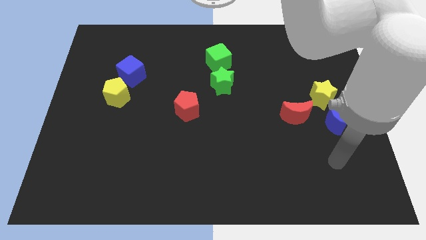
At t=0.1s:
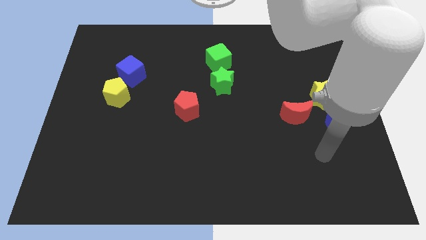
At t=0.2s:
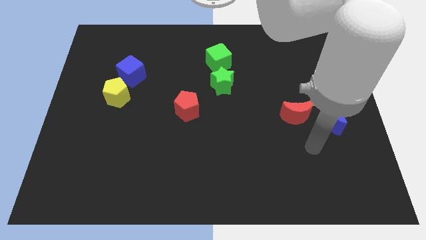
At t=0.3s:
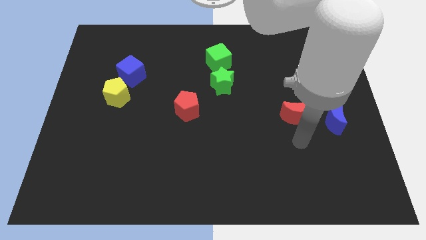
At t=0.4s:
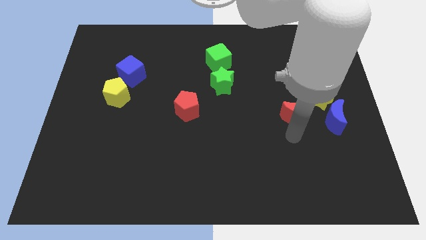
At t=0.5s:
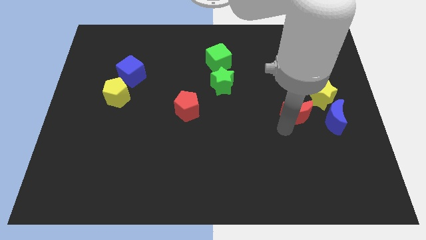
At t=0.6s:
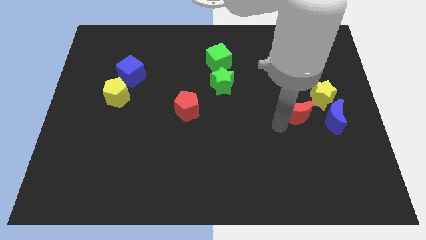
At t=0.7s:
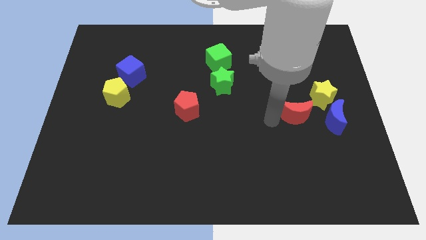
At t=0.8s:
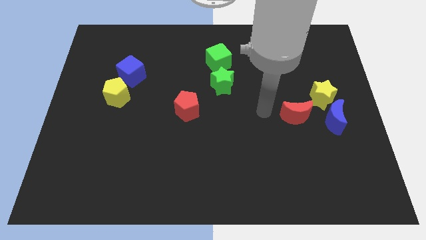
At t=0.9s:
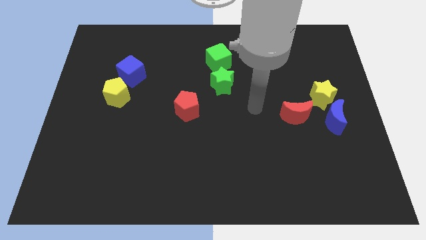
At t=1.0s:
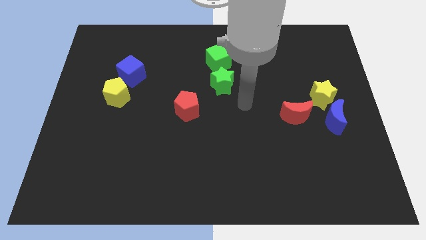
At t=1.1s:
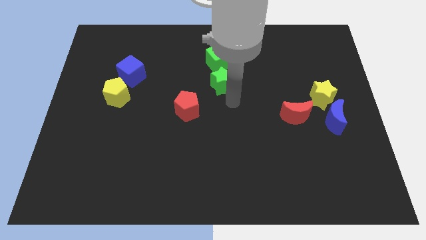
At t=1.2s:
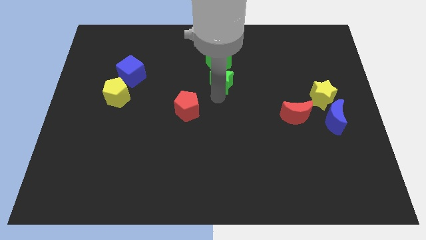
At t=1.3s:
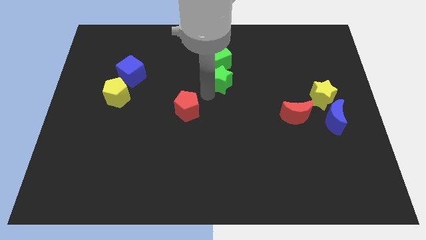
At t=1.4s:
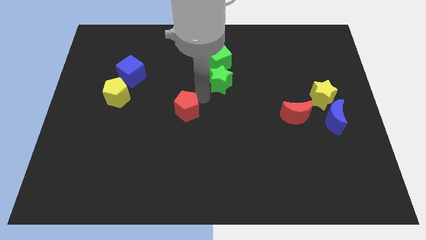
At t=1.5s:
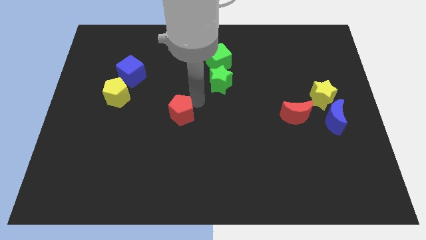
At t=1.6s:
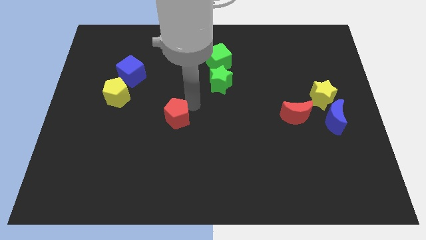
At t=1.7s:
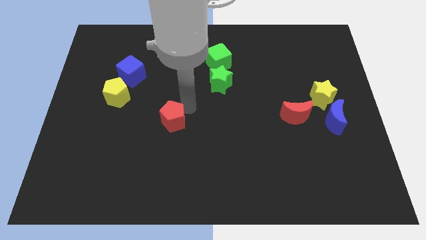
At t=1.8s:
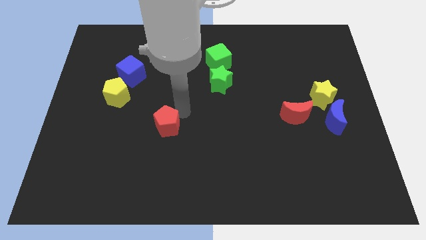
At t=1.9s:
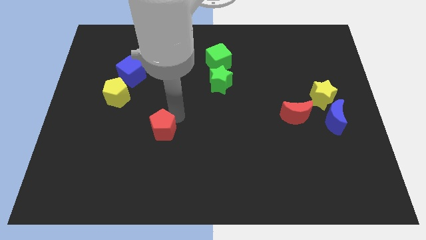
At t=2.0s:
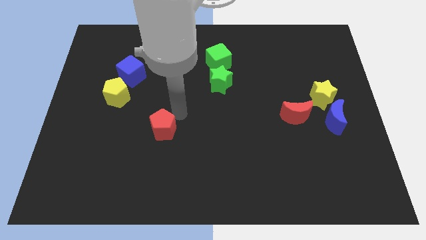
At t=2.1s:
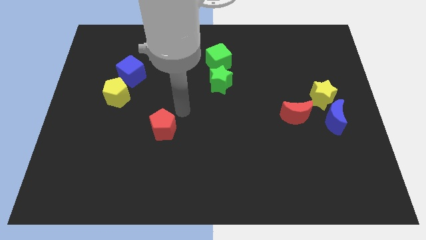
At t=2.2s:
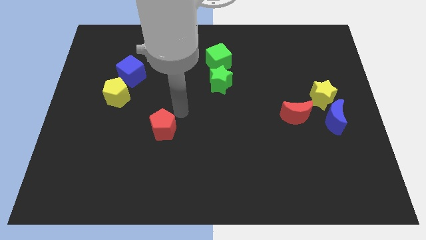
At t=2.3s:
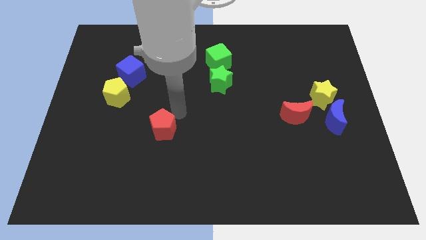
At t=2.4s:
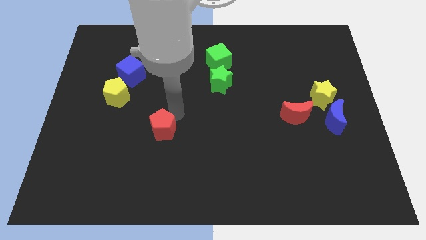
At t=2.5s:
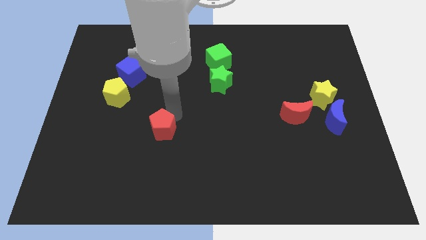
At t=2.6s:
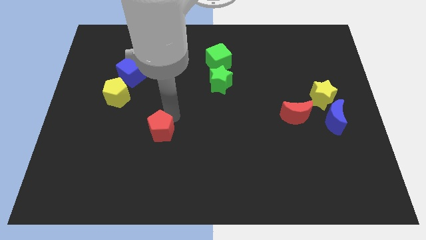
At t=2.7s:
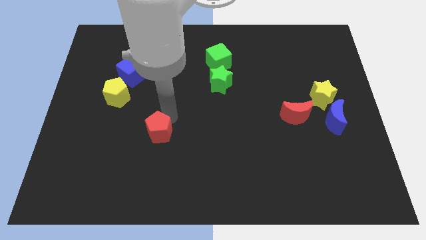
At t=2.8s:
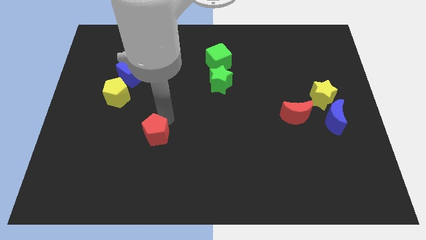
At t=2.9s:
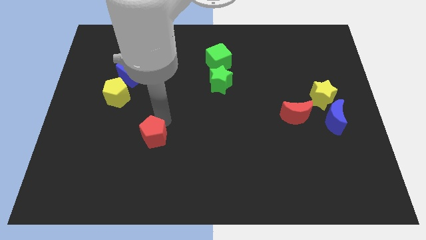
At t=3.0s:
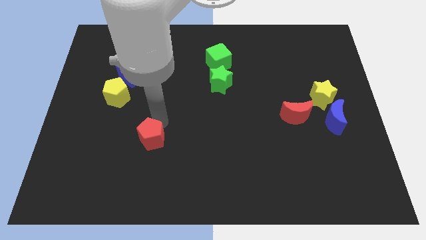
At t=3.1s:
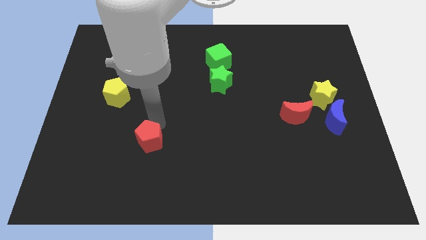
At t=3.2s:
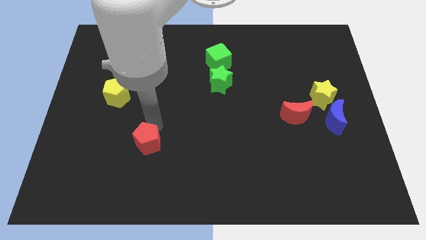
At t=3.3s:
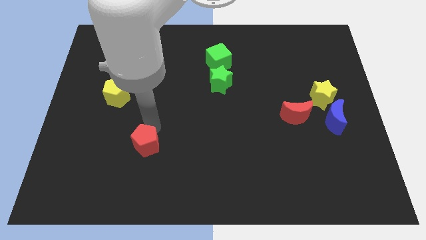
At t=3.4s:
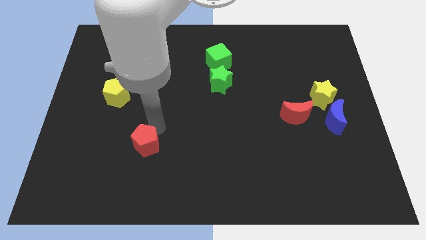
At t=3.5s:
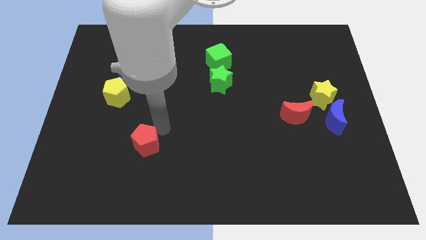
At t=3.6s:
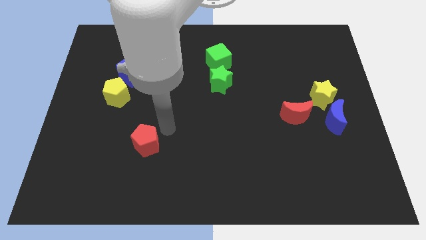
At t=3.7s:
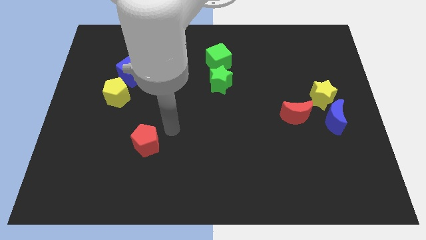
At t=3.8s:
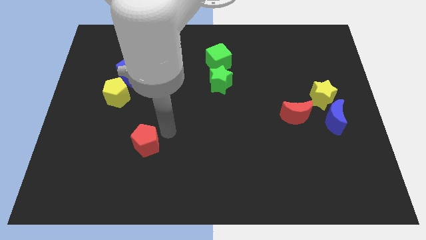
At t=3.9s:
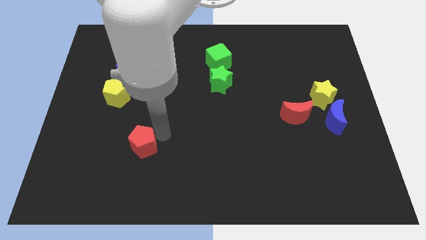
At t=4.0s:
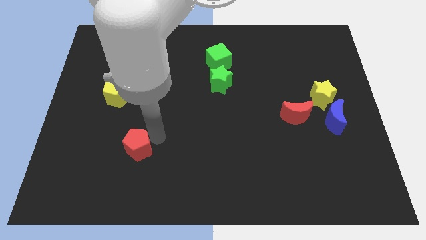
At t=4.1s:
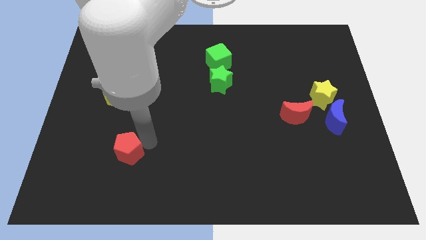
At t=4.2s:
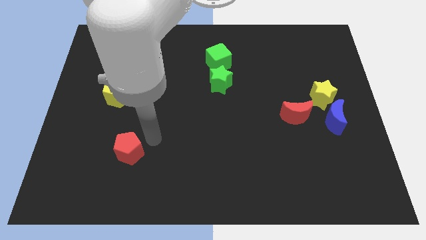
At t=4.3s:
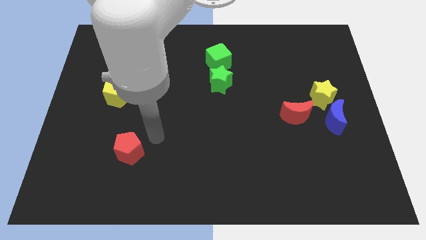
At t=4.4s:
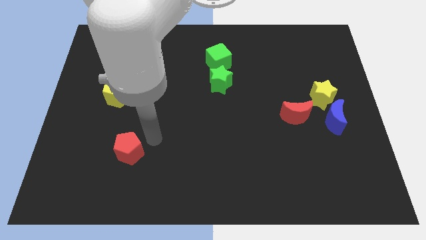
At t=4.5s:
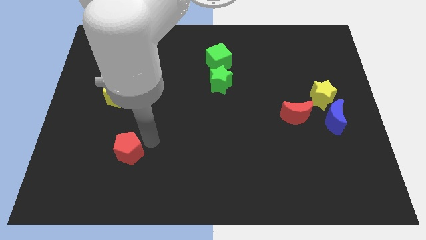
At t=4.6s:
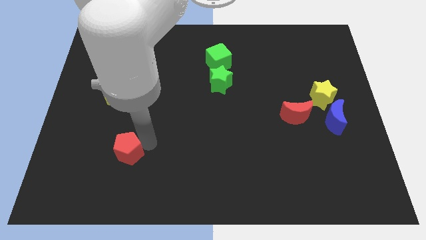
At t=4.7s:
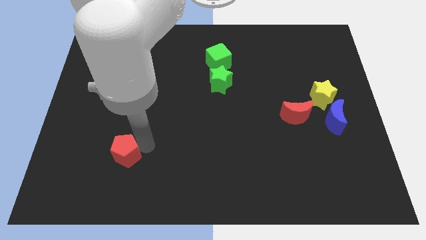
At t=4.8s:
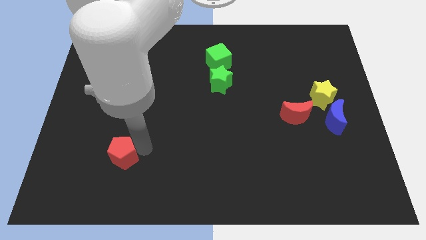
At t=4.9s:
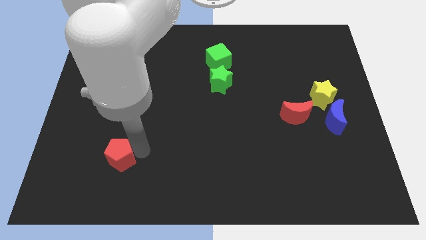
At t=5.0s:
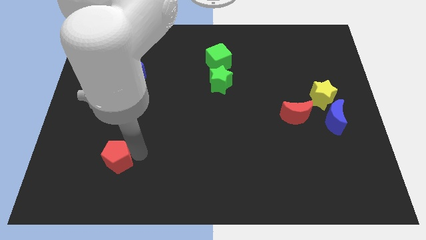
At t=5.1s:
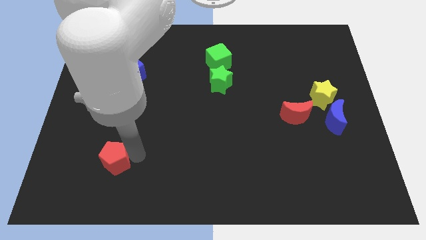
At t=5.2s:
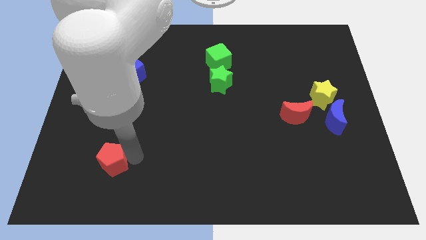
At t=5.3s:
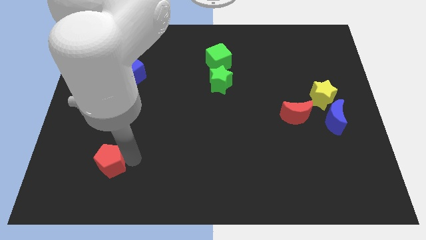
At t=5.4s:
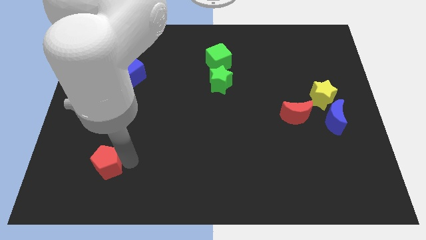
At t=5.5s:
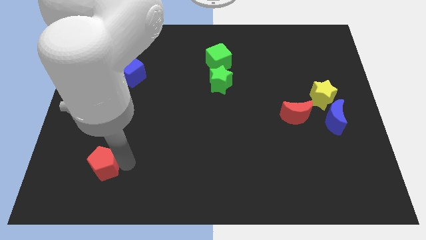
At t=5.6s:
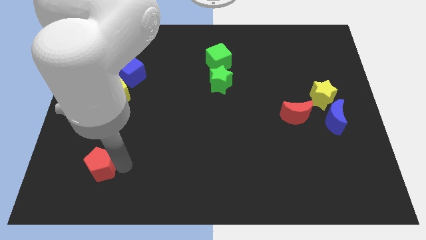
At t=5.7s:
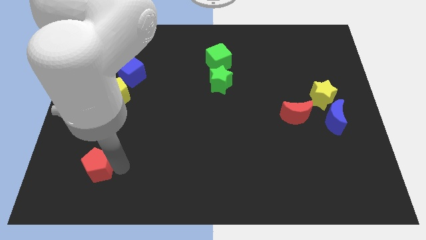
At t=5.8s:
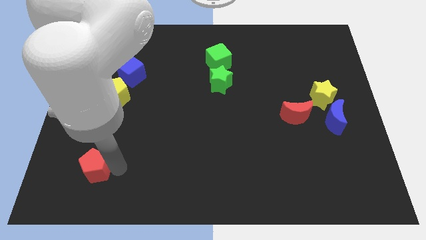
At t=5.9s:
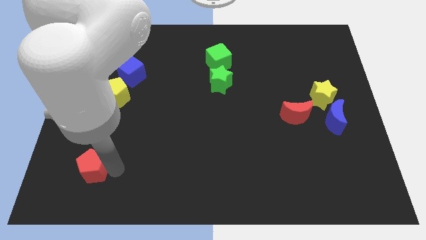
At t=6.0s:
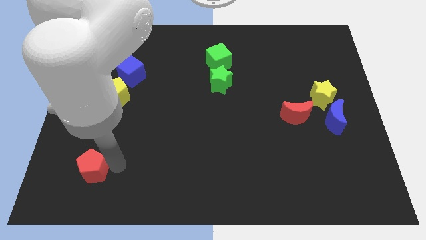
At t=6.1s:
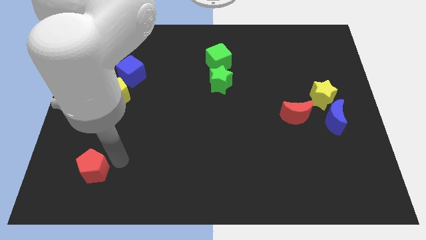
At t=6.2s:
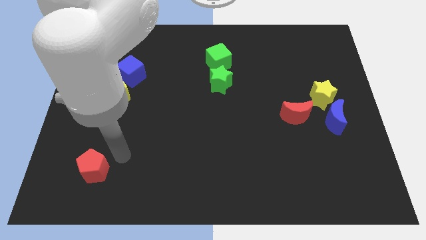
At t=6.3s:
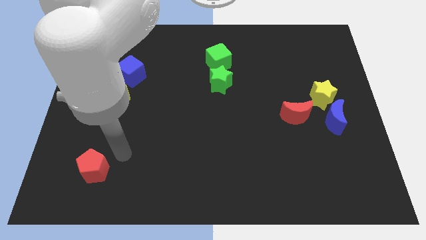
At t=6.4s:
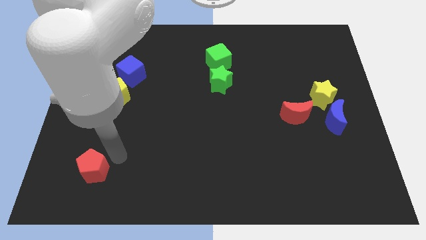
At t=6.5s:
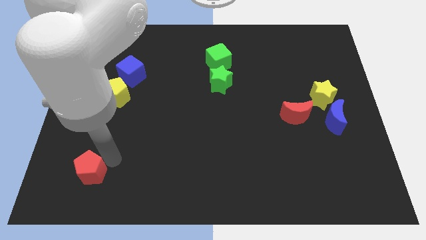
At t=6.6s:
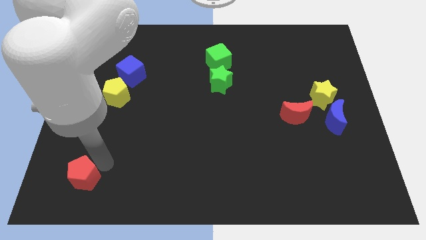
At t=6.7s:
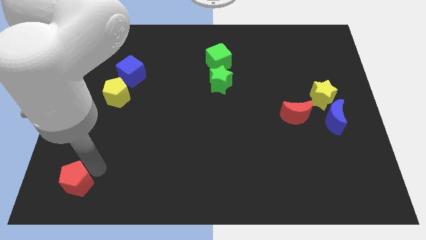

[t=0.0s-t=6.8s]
slide the red pentagon to the bottom left corner
